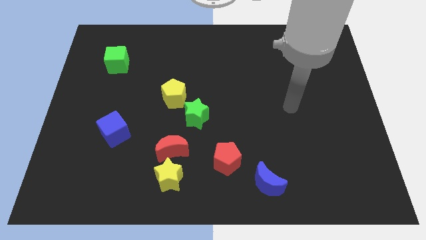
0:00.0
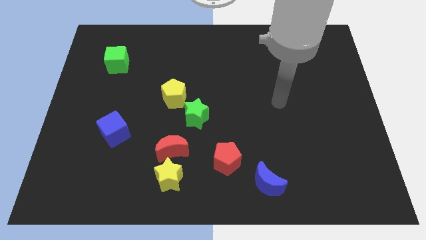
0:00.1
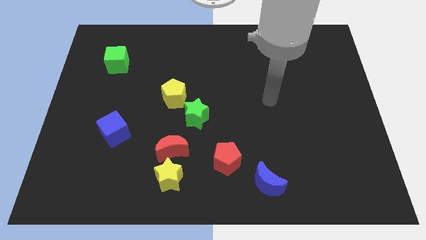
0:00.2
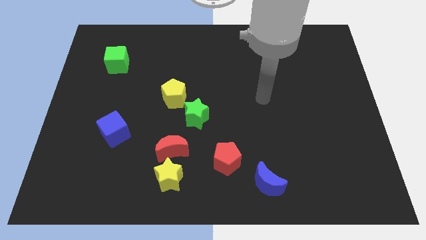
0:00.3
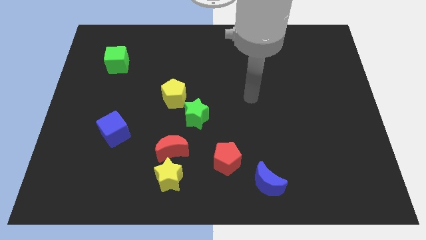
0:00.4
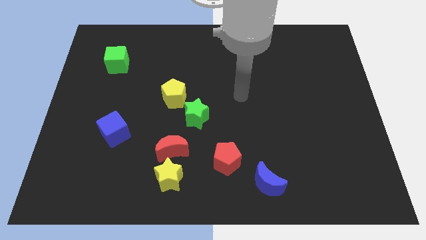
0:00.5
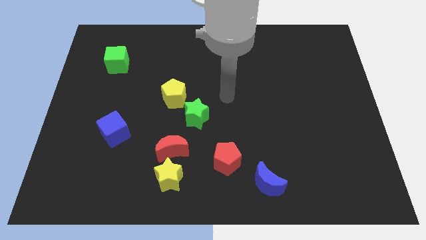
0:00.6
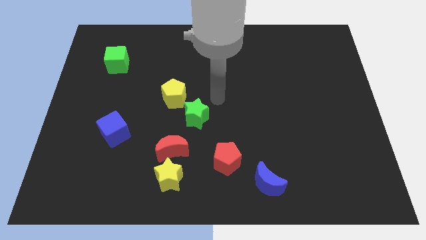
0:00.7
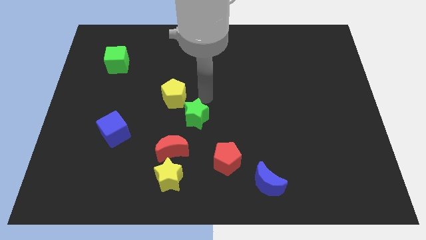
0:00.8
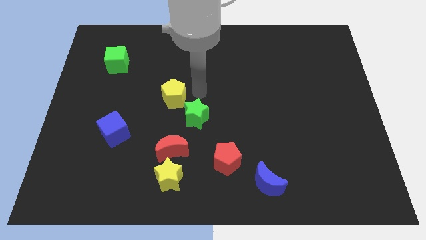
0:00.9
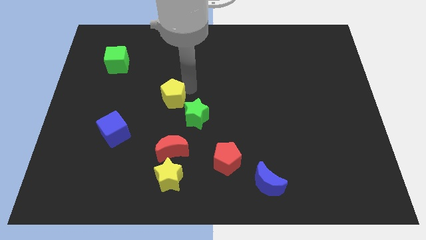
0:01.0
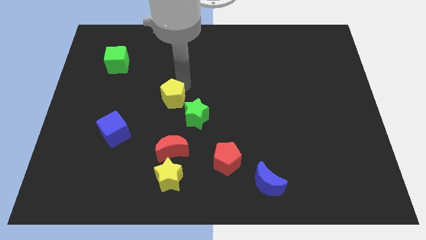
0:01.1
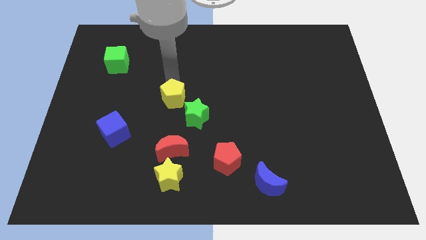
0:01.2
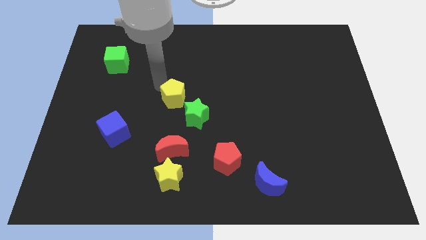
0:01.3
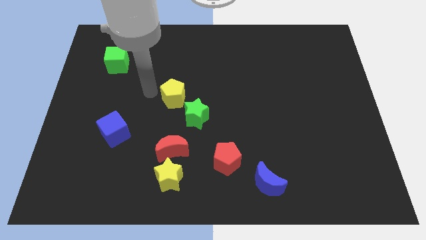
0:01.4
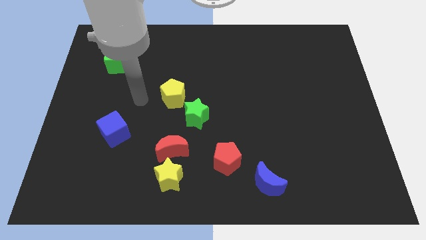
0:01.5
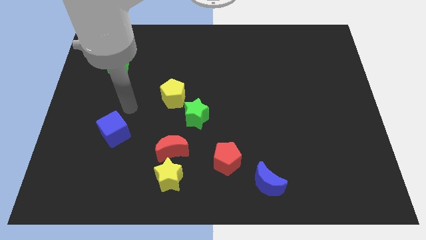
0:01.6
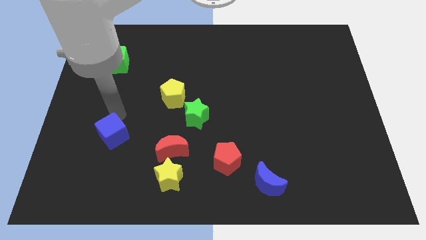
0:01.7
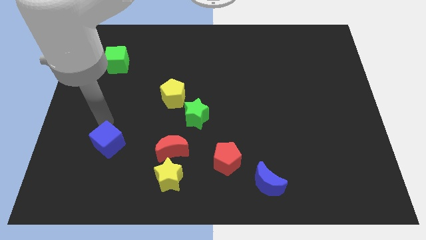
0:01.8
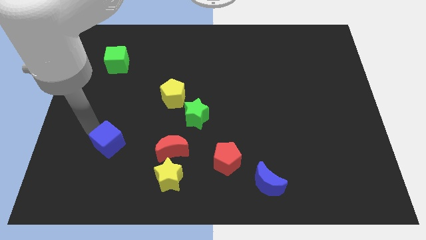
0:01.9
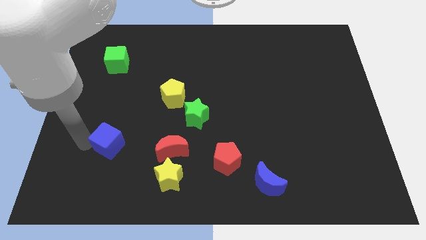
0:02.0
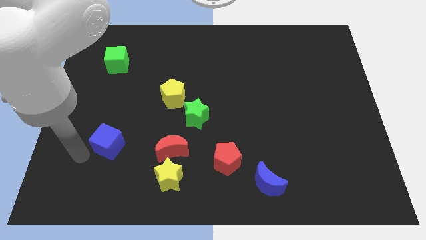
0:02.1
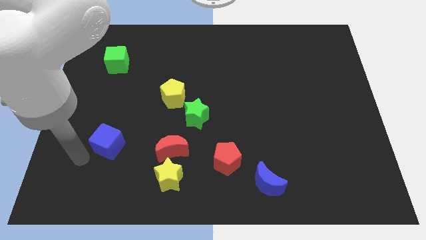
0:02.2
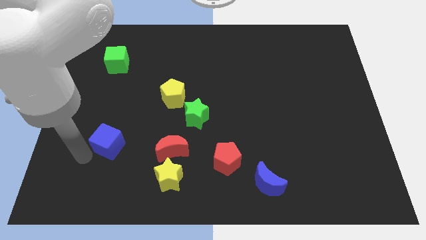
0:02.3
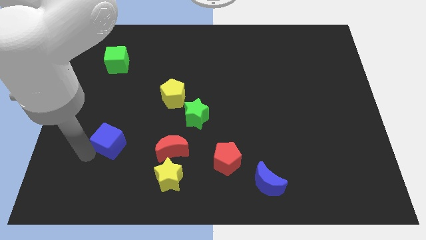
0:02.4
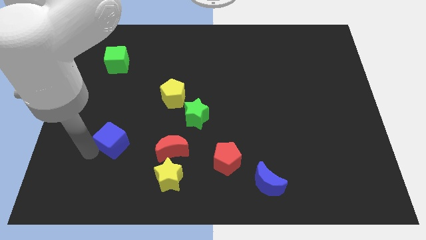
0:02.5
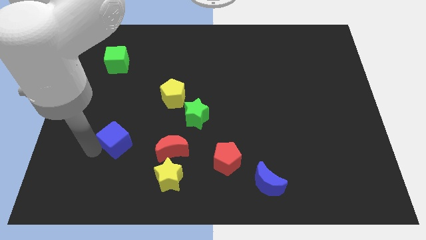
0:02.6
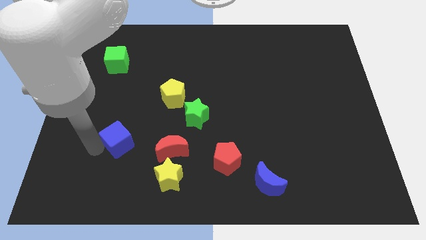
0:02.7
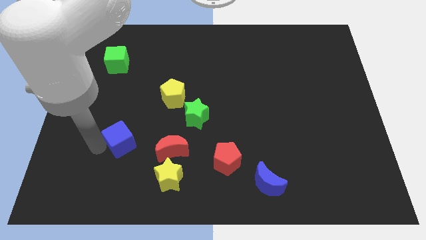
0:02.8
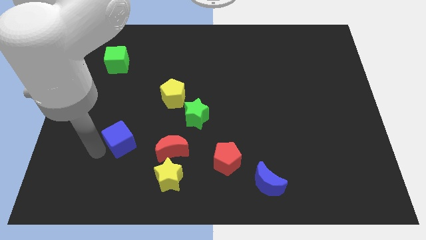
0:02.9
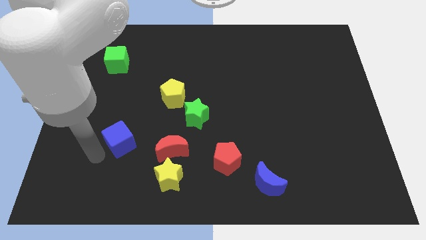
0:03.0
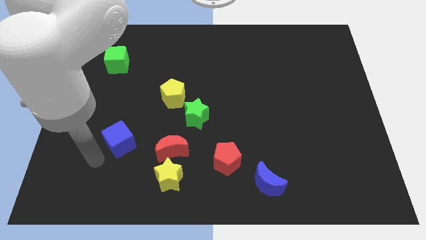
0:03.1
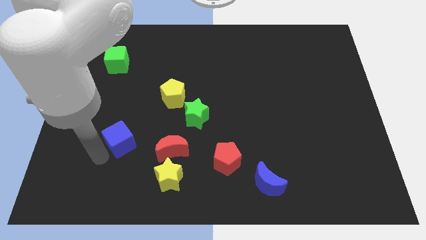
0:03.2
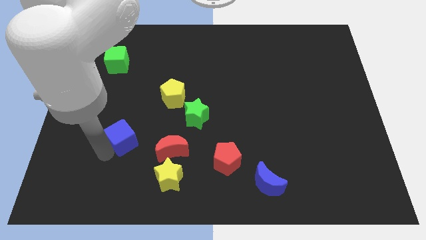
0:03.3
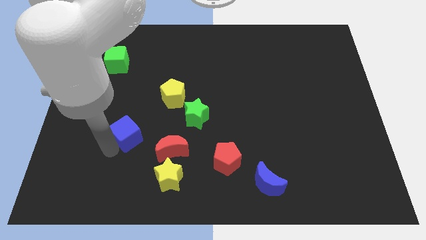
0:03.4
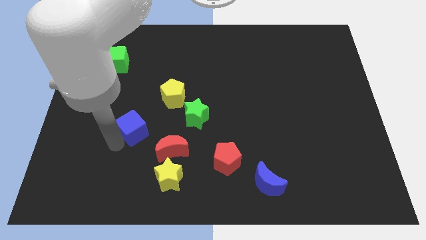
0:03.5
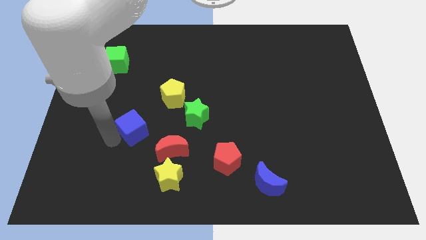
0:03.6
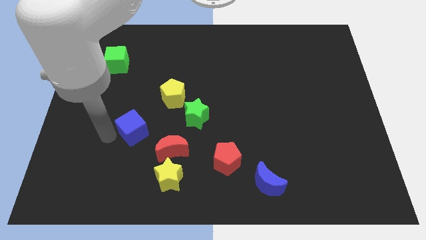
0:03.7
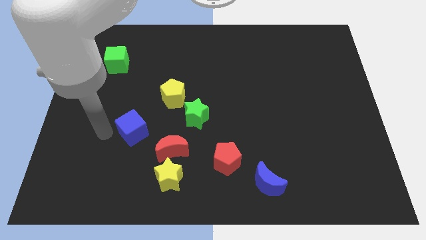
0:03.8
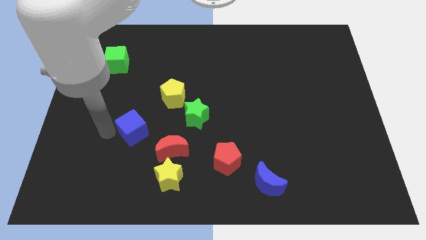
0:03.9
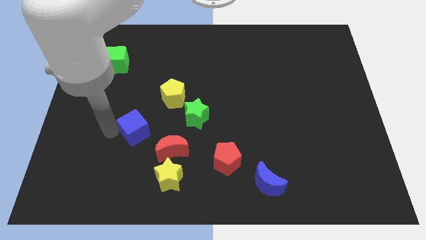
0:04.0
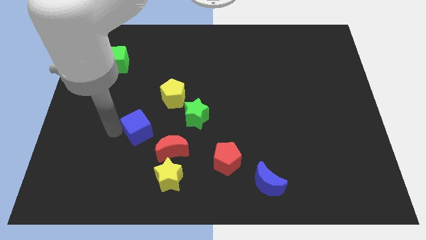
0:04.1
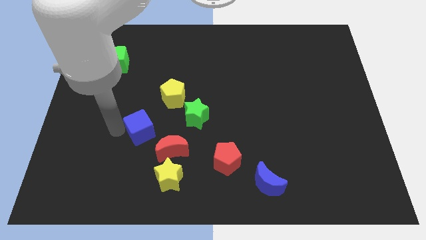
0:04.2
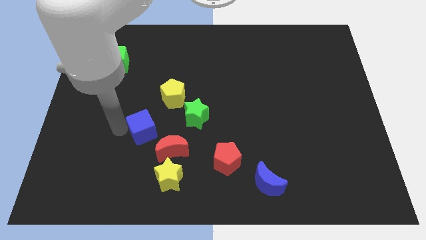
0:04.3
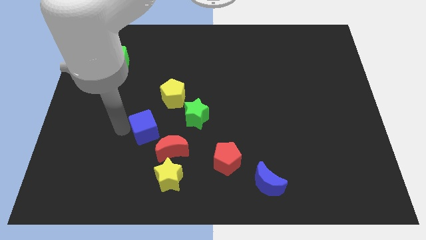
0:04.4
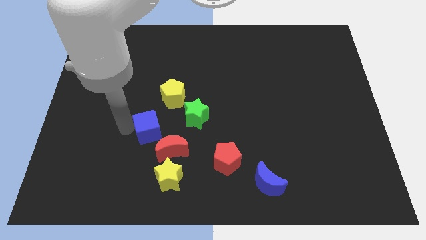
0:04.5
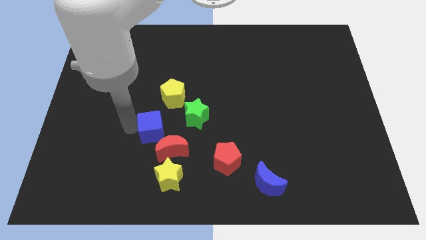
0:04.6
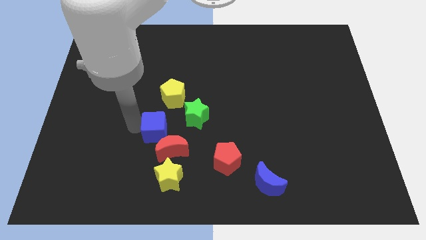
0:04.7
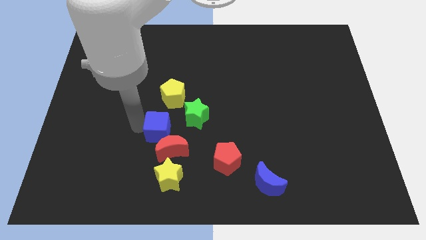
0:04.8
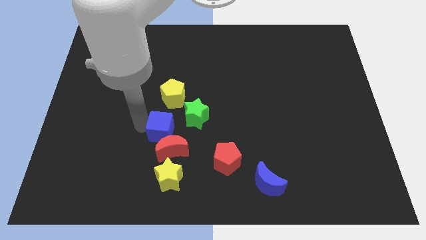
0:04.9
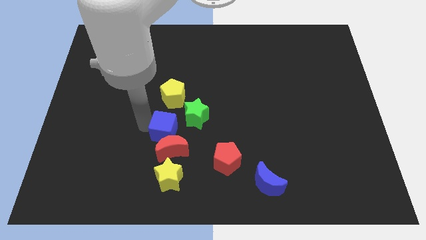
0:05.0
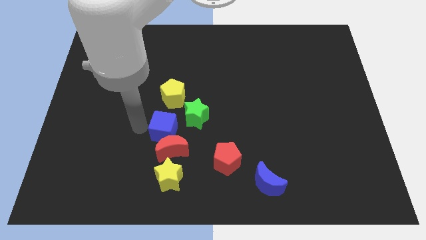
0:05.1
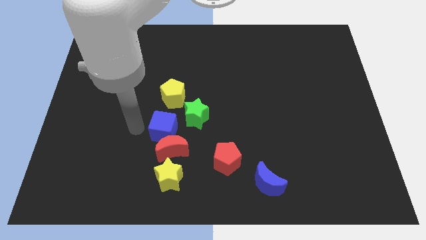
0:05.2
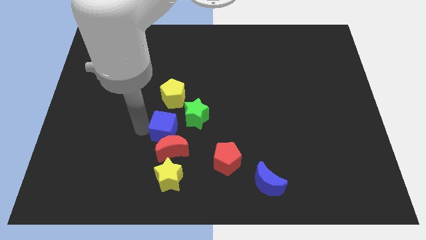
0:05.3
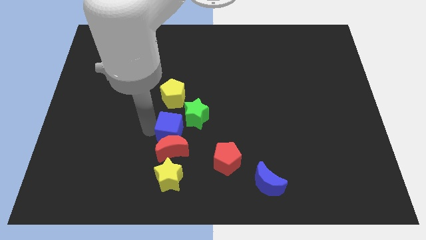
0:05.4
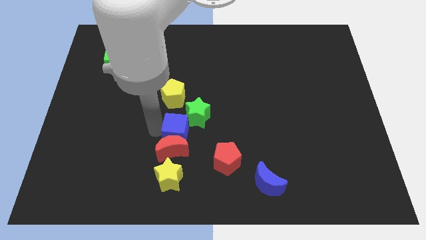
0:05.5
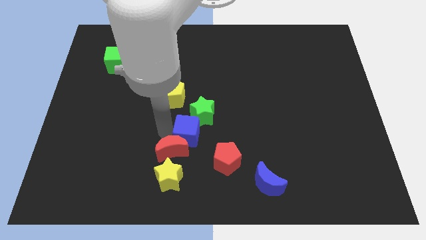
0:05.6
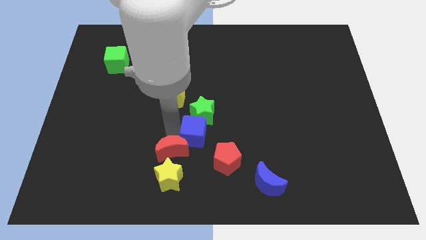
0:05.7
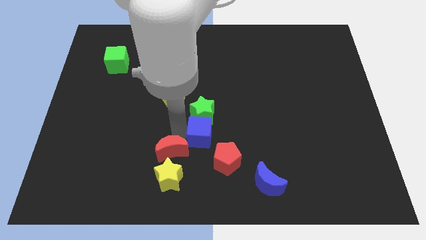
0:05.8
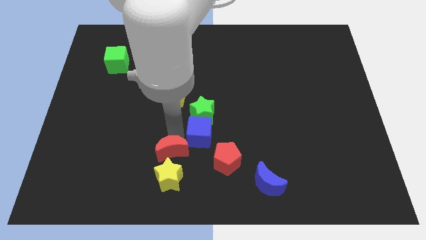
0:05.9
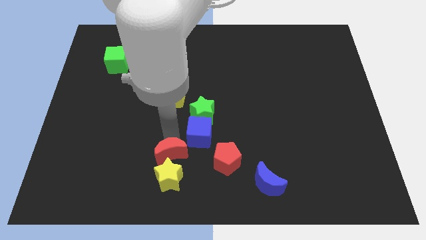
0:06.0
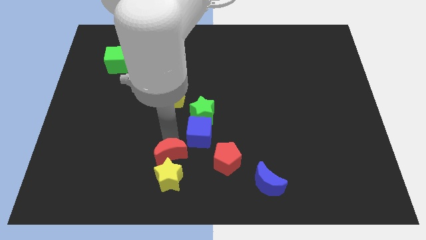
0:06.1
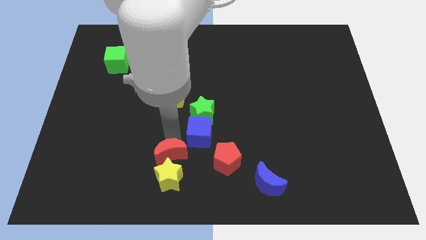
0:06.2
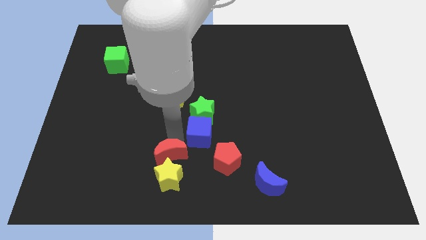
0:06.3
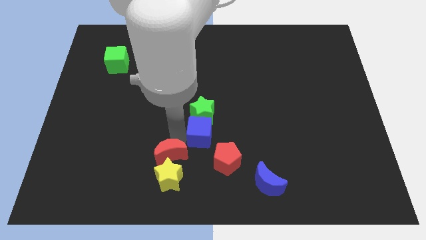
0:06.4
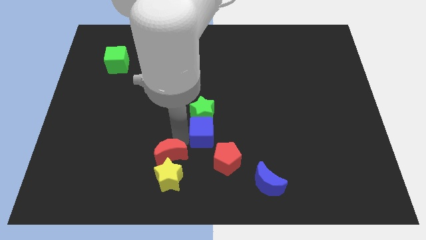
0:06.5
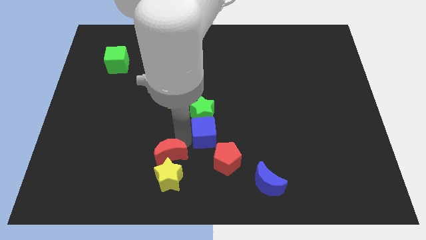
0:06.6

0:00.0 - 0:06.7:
move the blue cube to the right

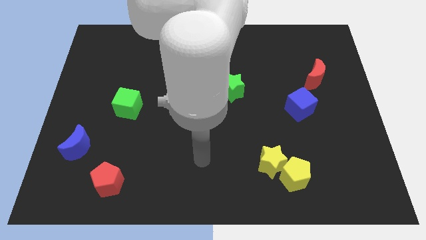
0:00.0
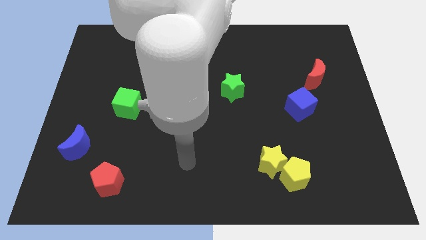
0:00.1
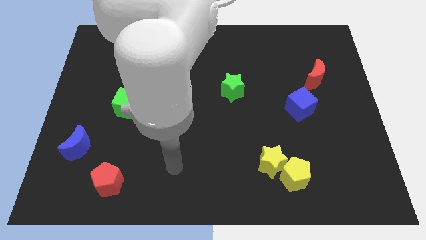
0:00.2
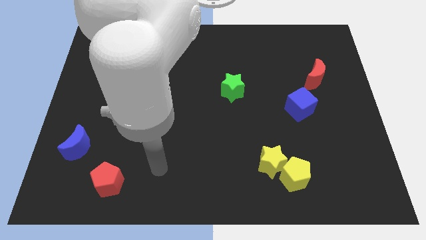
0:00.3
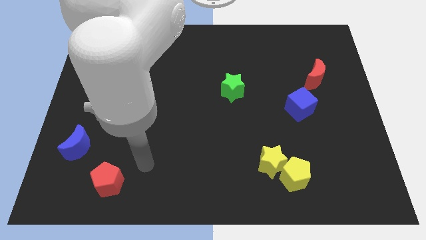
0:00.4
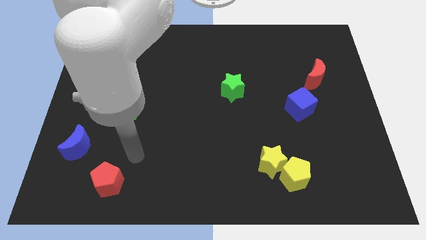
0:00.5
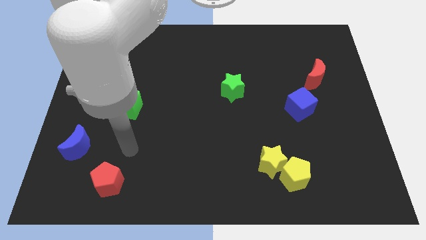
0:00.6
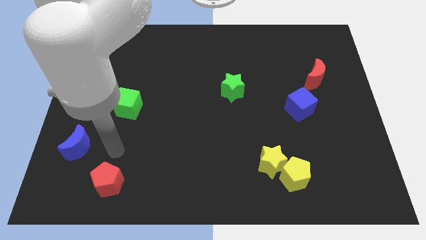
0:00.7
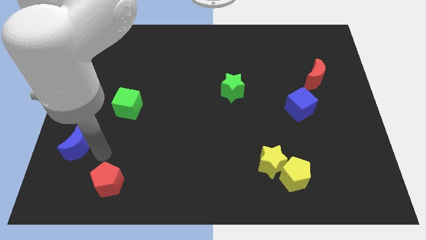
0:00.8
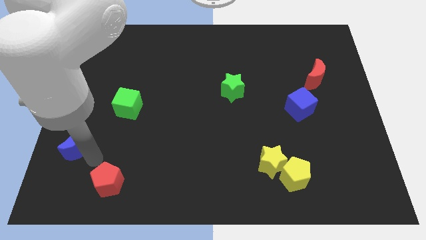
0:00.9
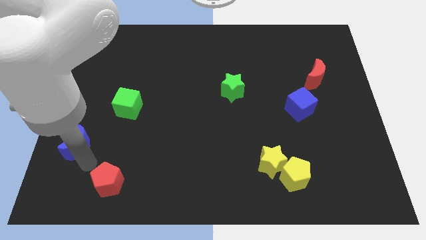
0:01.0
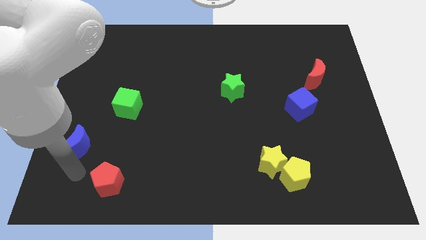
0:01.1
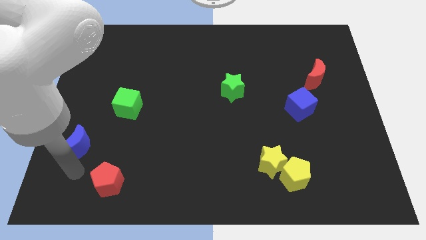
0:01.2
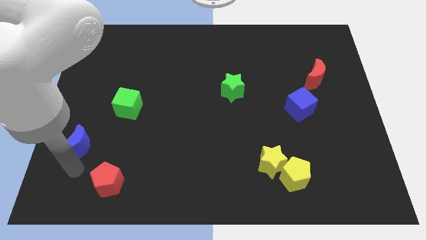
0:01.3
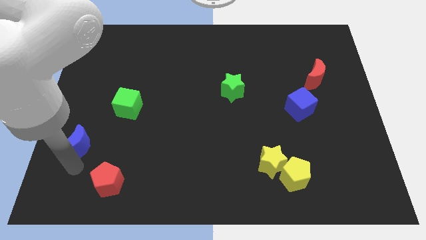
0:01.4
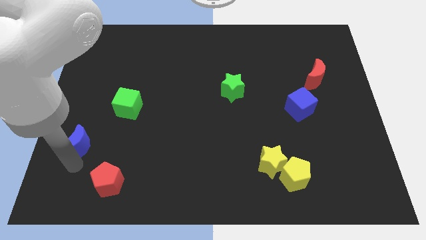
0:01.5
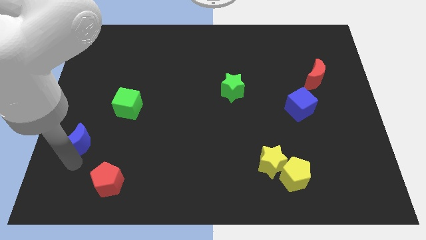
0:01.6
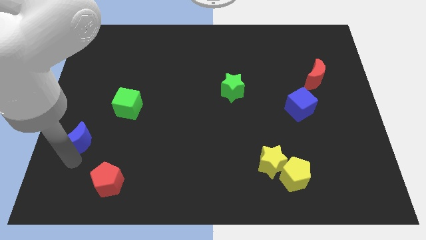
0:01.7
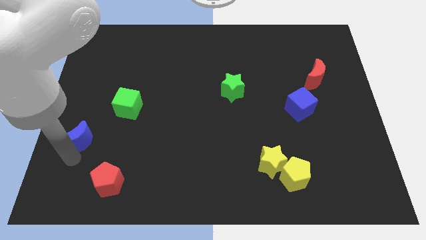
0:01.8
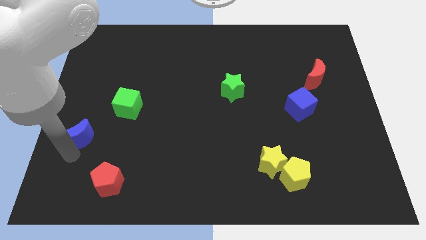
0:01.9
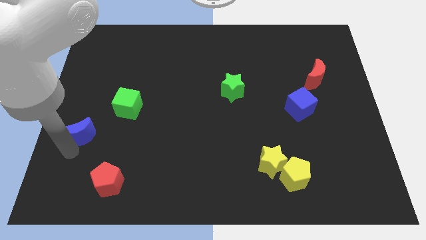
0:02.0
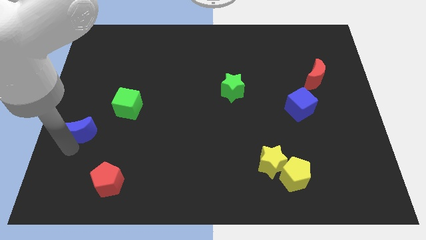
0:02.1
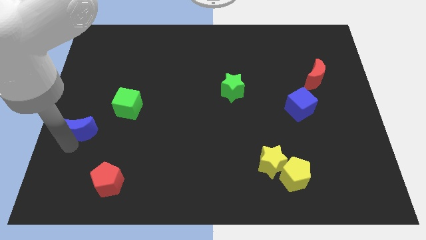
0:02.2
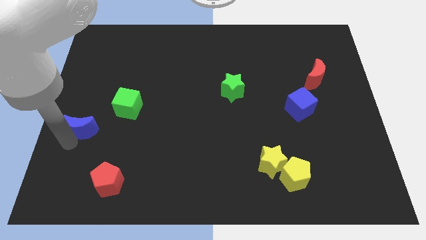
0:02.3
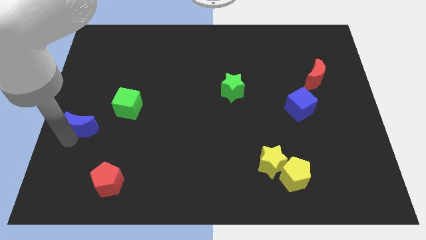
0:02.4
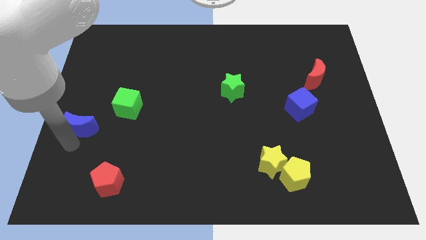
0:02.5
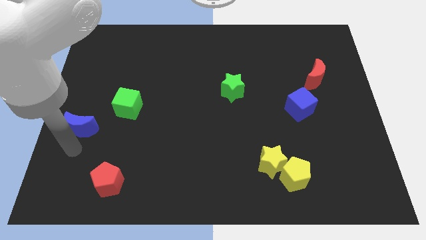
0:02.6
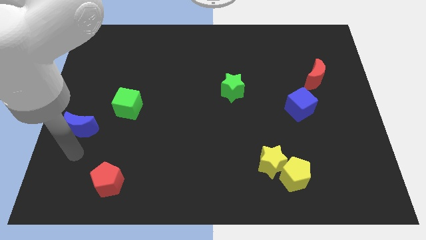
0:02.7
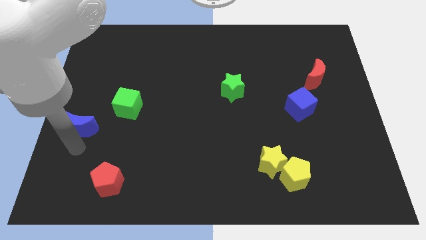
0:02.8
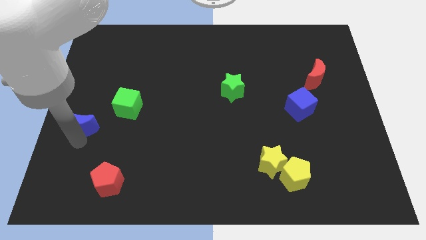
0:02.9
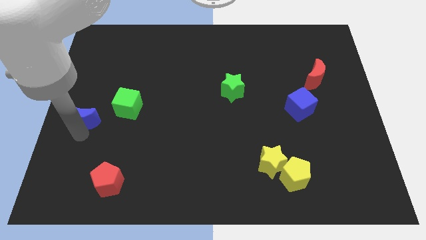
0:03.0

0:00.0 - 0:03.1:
push the blue moon slightly up
